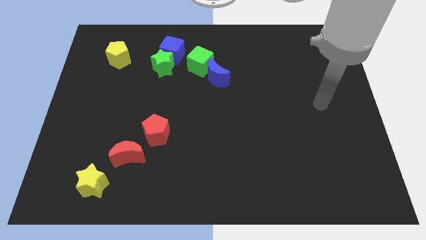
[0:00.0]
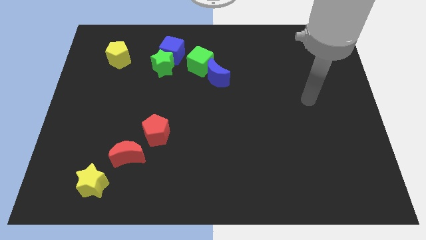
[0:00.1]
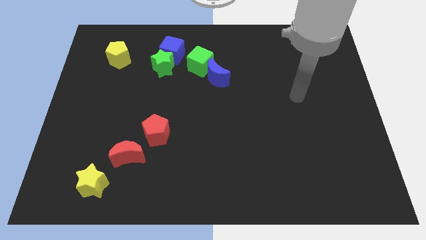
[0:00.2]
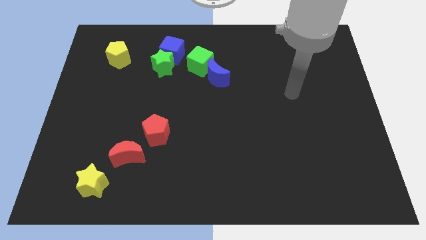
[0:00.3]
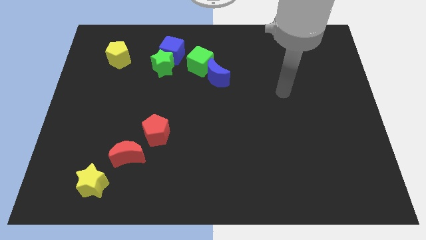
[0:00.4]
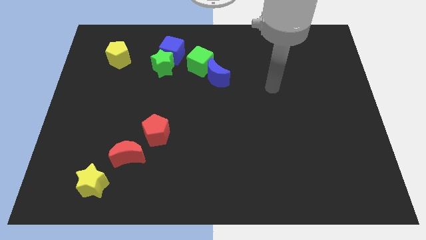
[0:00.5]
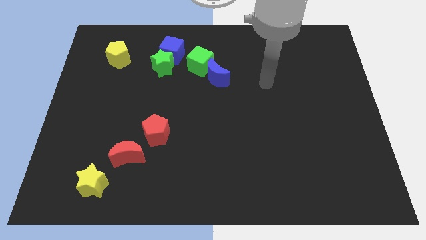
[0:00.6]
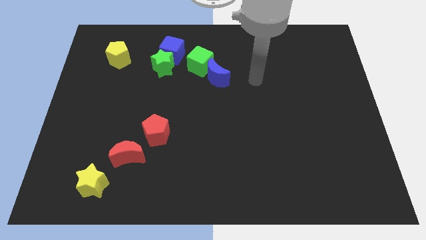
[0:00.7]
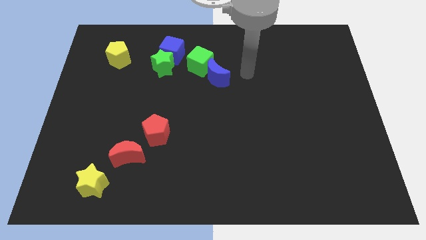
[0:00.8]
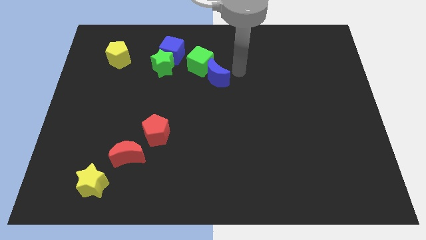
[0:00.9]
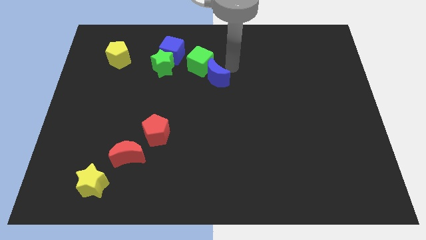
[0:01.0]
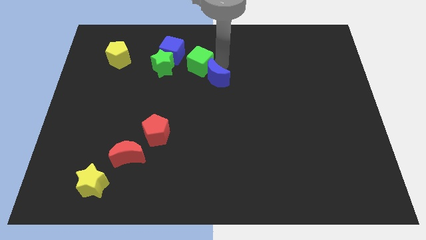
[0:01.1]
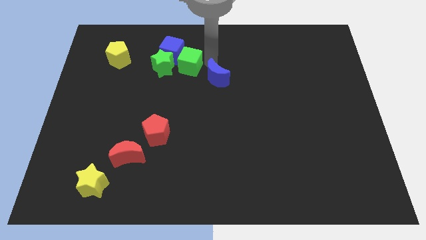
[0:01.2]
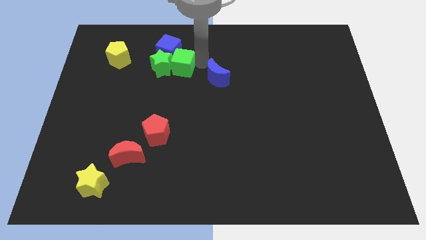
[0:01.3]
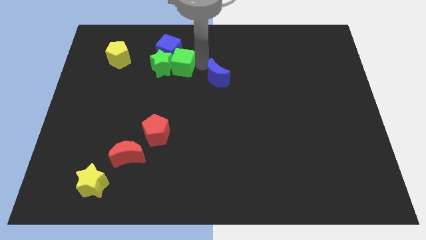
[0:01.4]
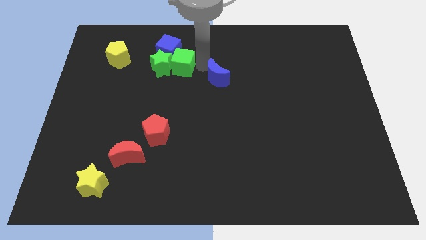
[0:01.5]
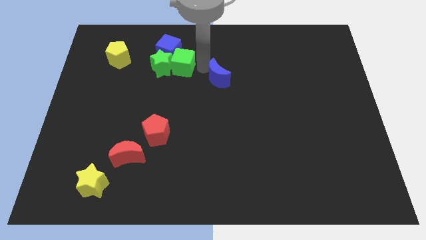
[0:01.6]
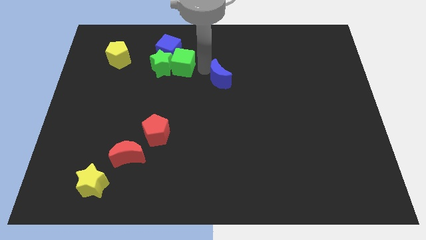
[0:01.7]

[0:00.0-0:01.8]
separate the blue moon from the green cube

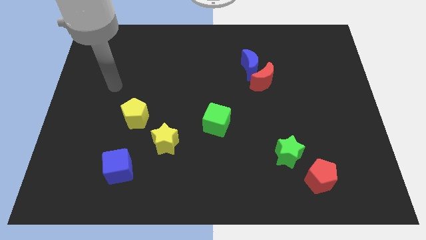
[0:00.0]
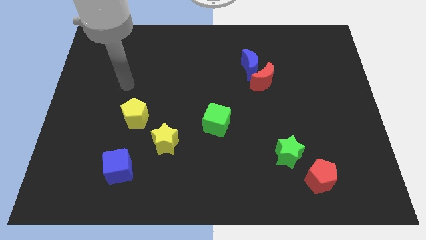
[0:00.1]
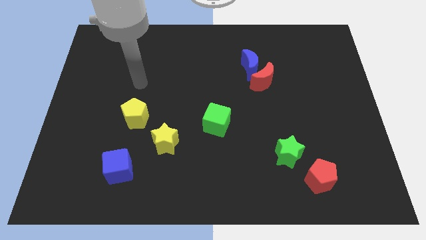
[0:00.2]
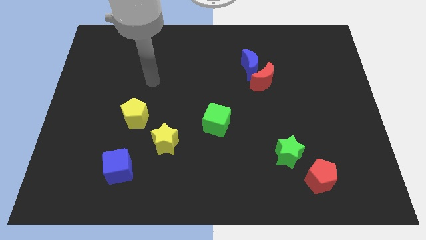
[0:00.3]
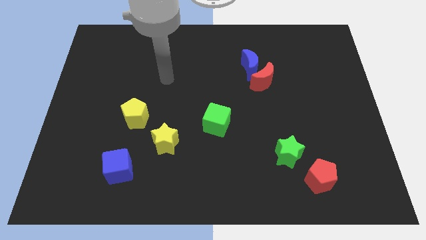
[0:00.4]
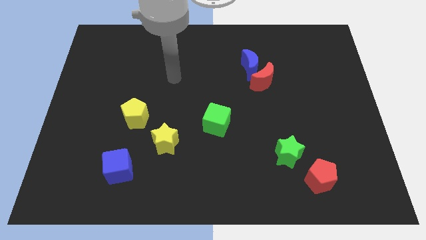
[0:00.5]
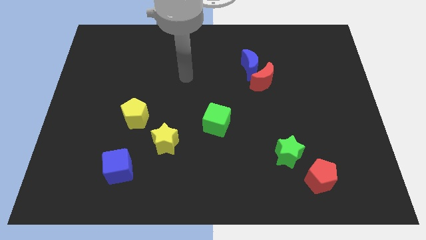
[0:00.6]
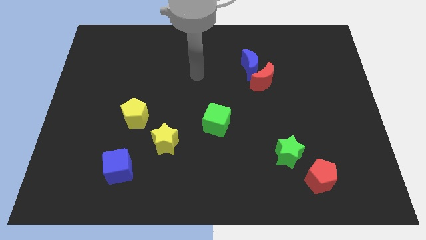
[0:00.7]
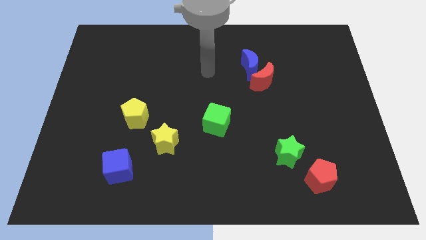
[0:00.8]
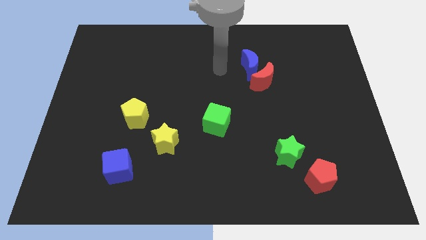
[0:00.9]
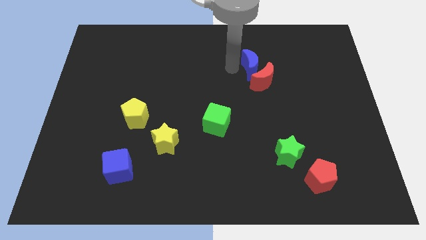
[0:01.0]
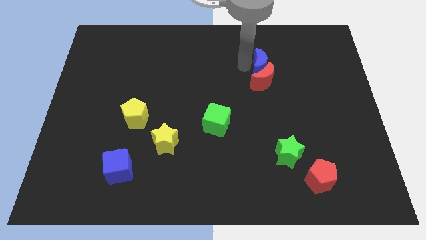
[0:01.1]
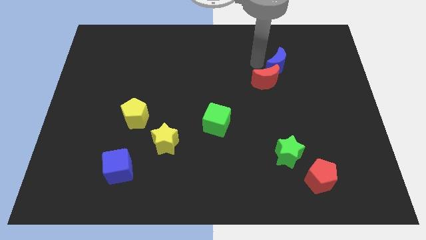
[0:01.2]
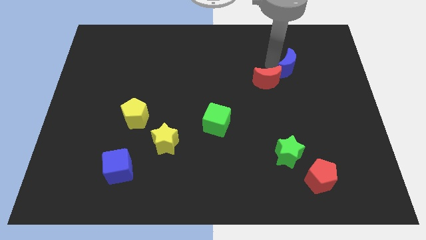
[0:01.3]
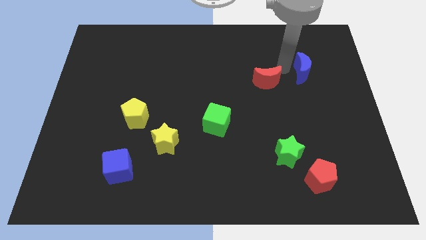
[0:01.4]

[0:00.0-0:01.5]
pull the red moon apart from the blue moon

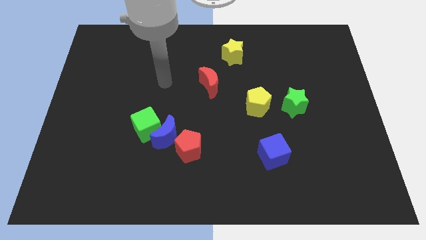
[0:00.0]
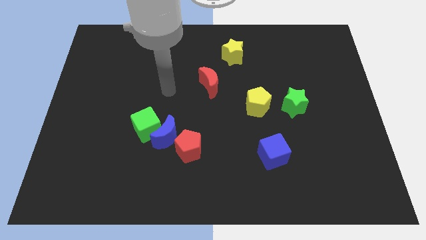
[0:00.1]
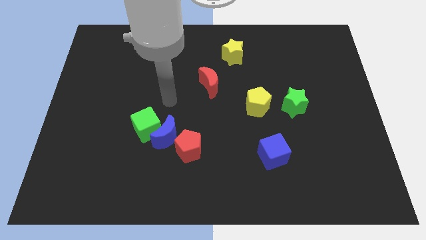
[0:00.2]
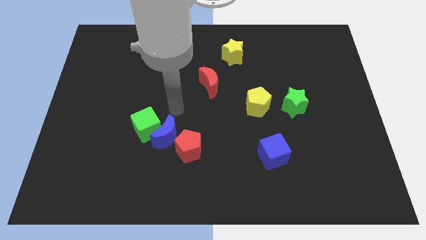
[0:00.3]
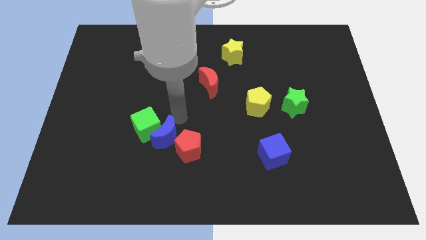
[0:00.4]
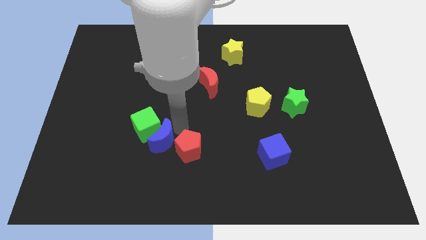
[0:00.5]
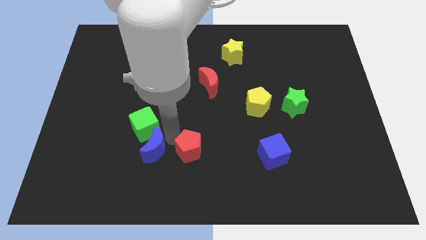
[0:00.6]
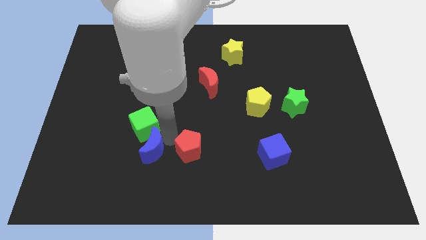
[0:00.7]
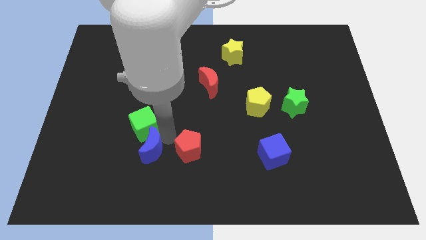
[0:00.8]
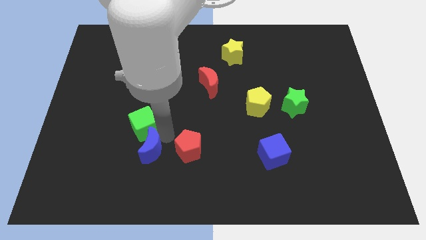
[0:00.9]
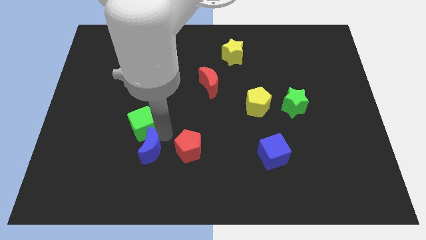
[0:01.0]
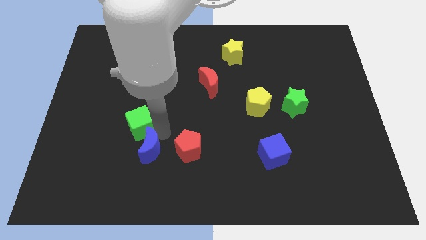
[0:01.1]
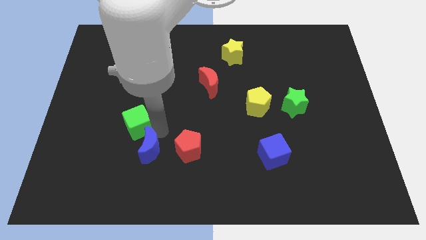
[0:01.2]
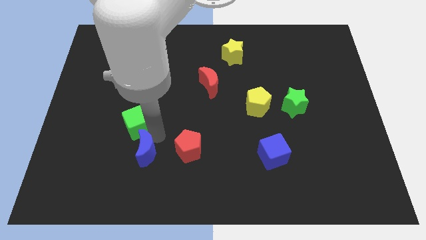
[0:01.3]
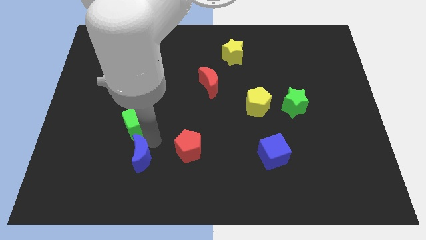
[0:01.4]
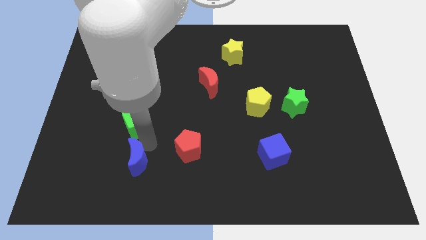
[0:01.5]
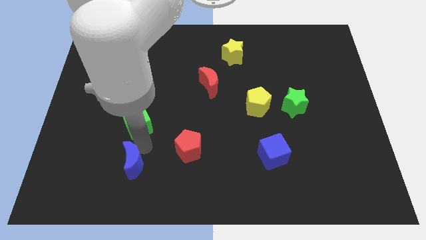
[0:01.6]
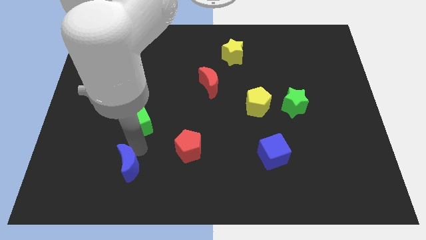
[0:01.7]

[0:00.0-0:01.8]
move the green cube away from the blue moon

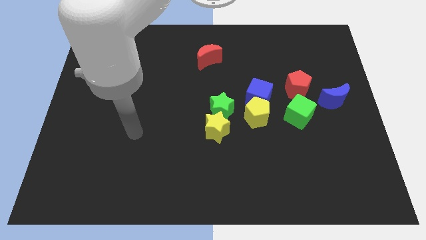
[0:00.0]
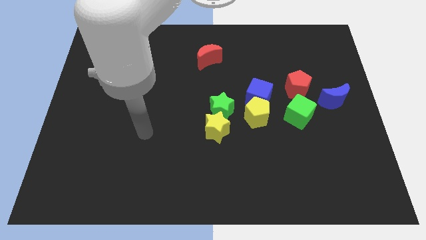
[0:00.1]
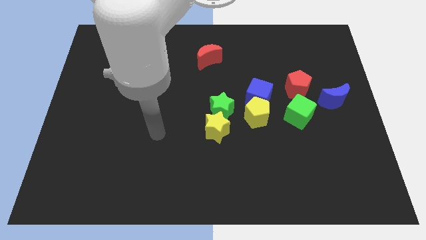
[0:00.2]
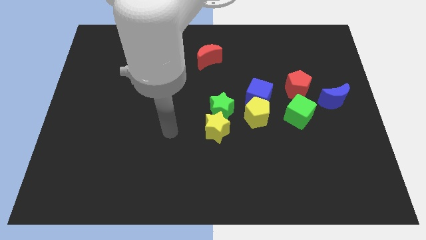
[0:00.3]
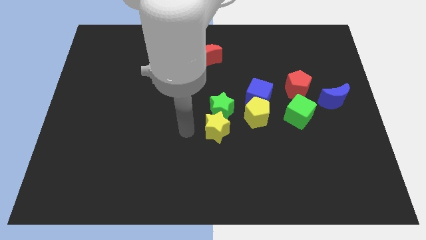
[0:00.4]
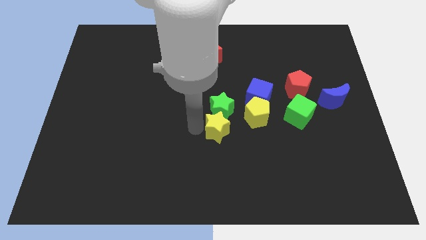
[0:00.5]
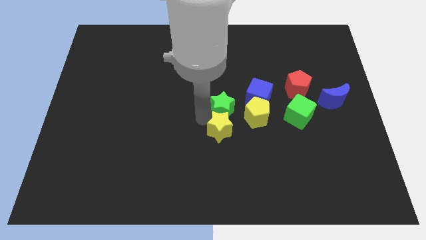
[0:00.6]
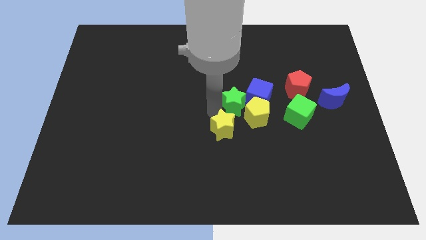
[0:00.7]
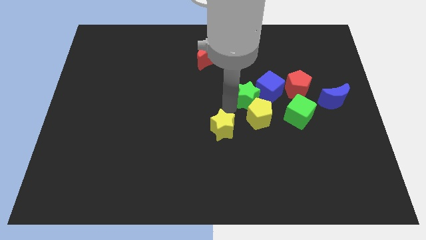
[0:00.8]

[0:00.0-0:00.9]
separate the yellow star from the green star

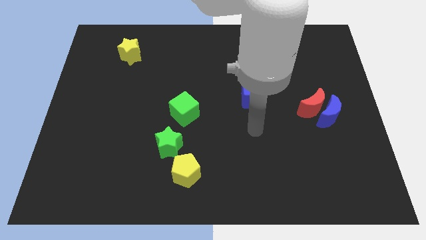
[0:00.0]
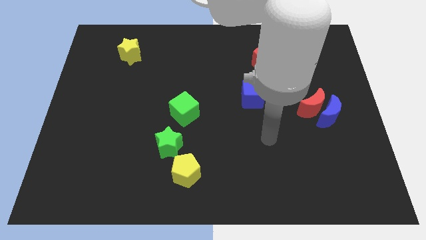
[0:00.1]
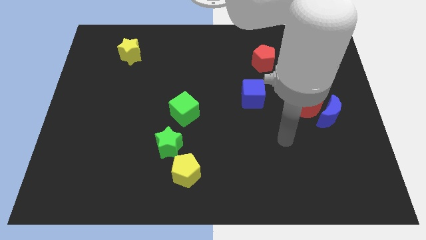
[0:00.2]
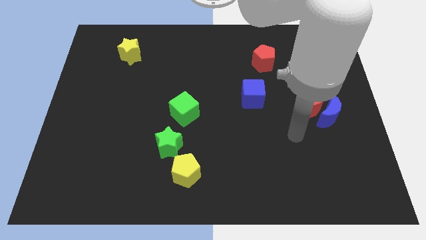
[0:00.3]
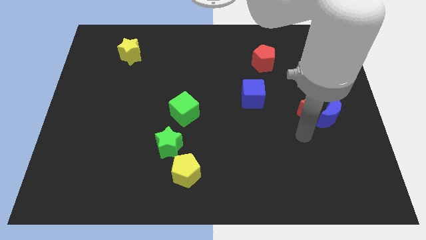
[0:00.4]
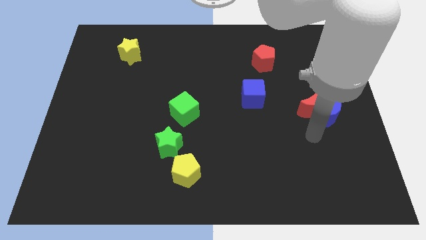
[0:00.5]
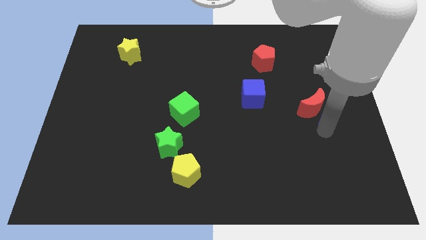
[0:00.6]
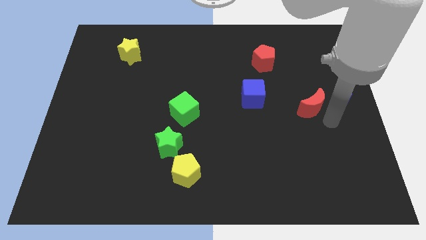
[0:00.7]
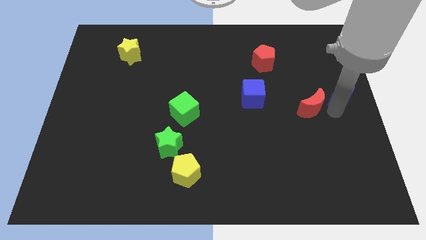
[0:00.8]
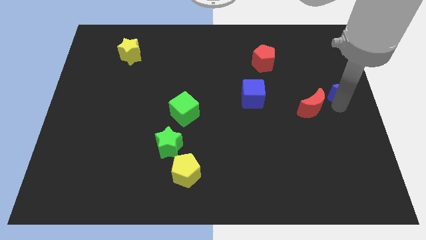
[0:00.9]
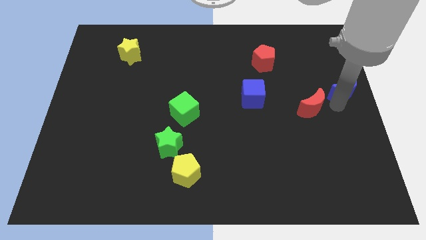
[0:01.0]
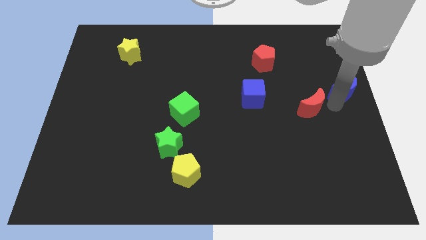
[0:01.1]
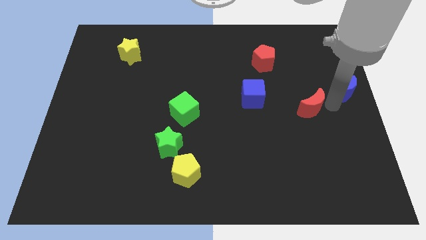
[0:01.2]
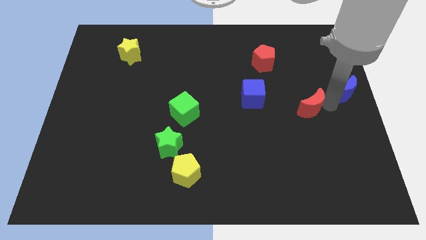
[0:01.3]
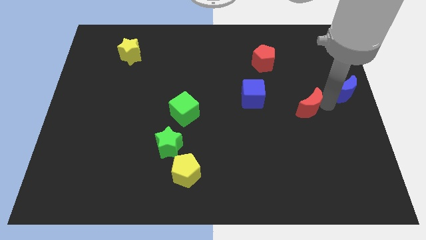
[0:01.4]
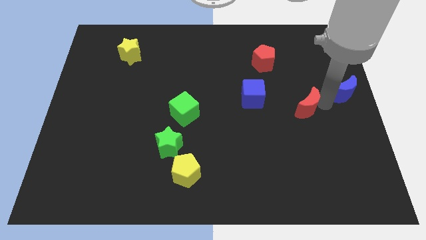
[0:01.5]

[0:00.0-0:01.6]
separate the red moon from the blue moon

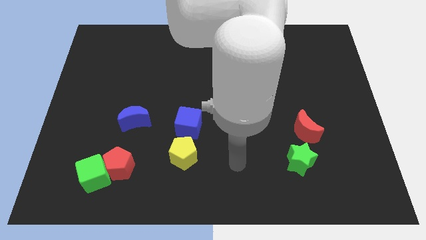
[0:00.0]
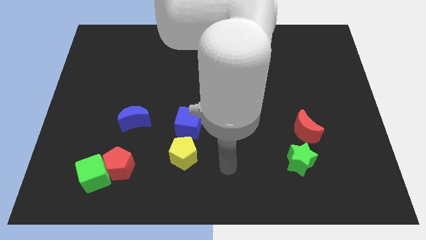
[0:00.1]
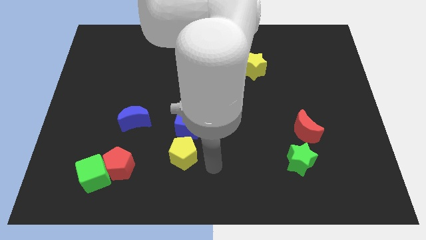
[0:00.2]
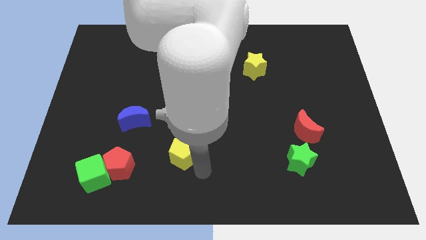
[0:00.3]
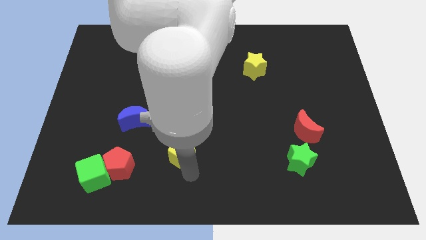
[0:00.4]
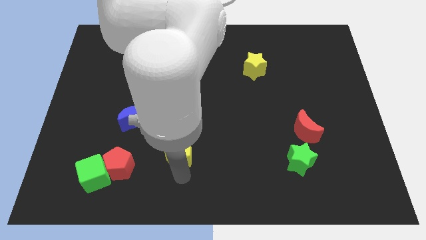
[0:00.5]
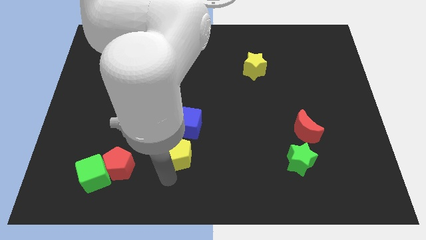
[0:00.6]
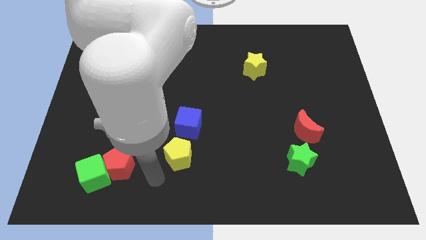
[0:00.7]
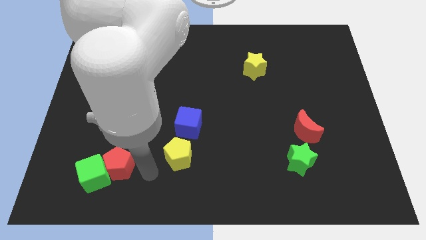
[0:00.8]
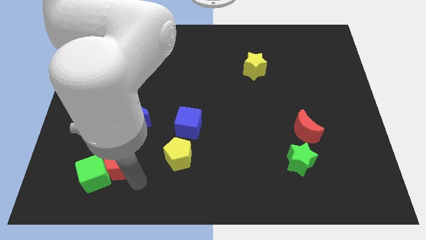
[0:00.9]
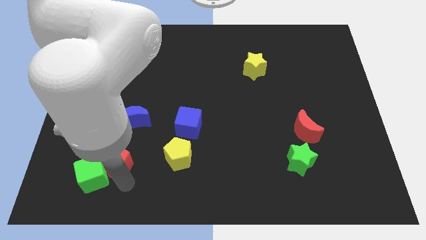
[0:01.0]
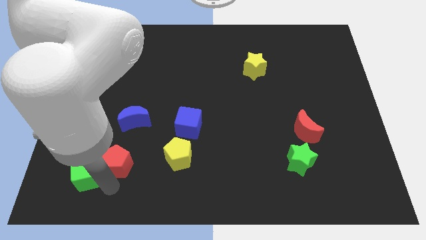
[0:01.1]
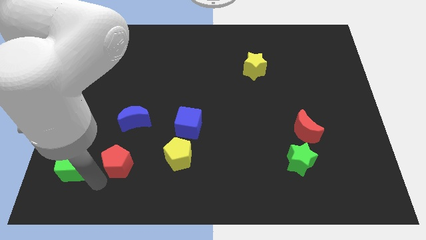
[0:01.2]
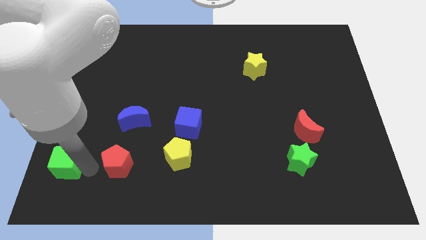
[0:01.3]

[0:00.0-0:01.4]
separate the red pentagon from the green cube

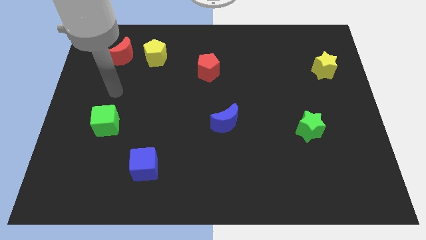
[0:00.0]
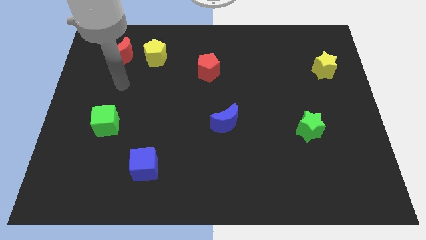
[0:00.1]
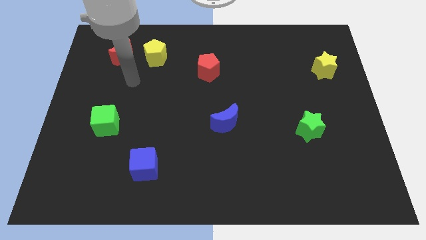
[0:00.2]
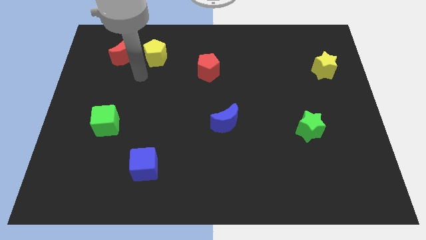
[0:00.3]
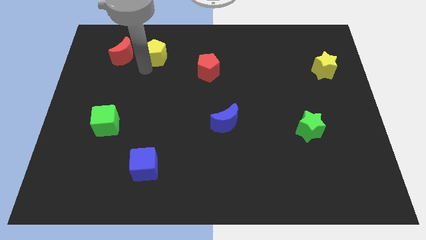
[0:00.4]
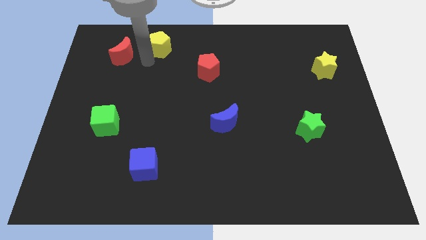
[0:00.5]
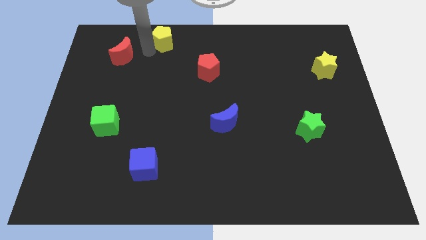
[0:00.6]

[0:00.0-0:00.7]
pull the red moon apart from the yellow pentagon
